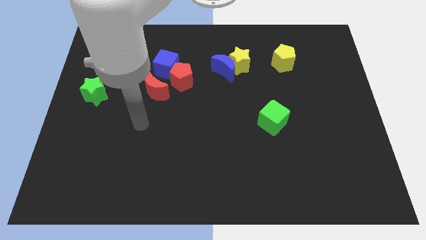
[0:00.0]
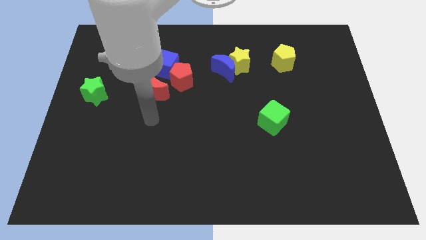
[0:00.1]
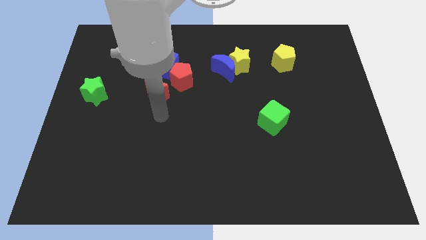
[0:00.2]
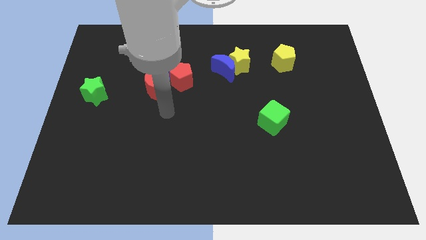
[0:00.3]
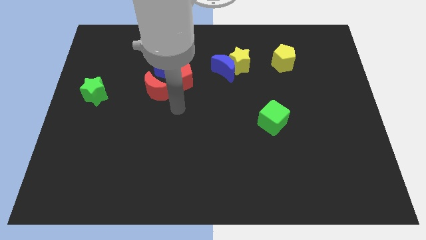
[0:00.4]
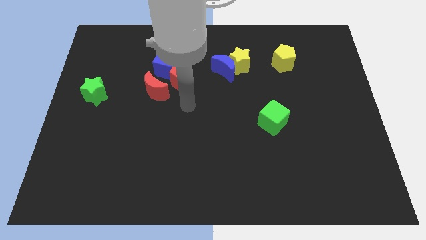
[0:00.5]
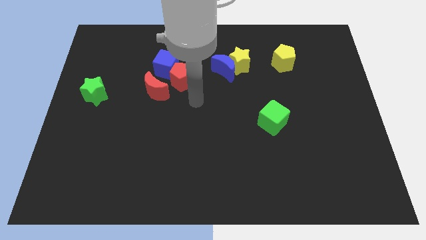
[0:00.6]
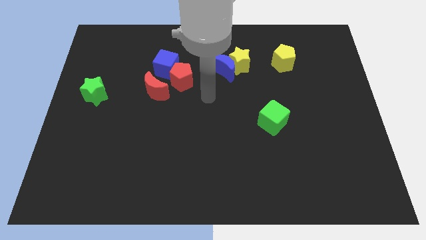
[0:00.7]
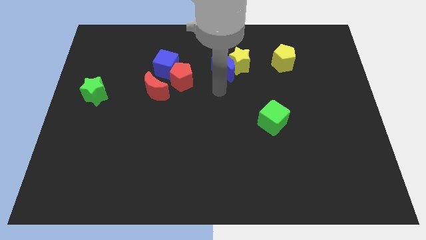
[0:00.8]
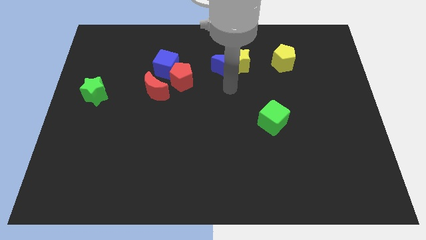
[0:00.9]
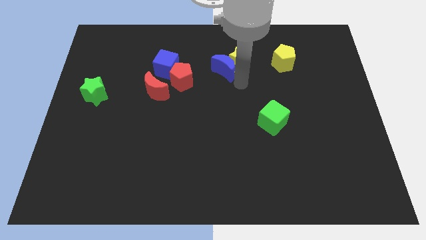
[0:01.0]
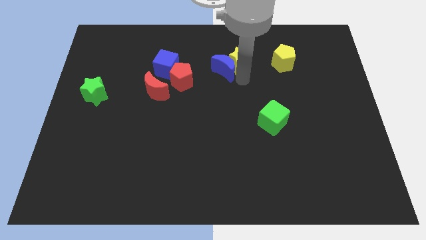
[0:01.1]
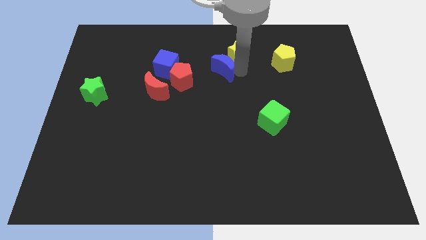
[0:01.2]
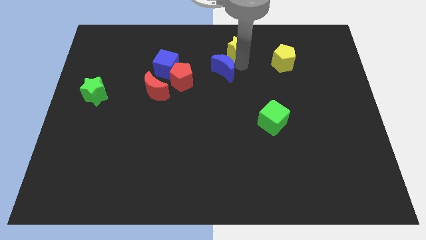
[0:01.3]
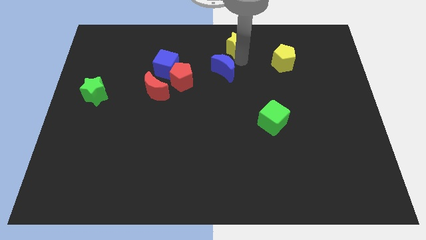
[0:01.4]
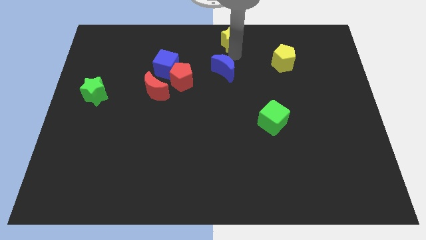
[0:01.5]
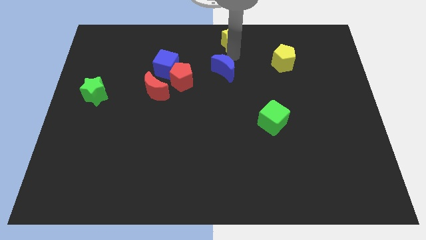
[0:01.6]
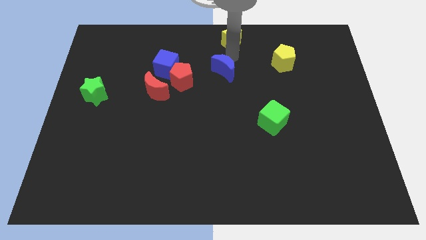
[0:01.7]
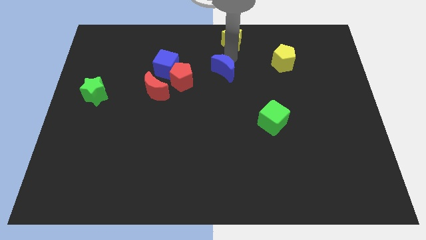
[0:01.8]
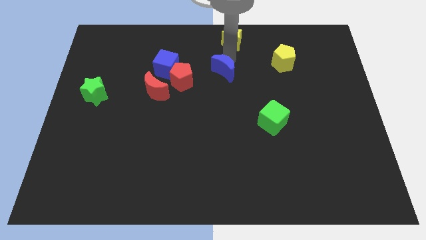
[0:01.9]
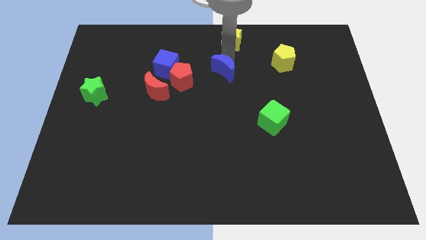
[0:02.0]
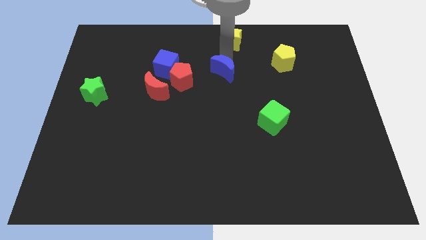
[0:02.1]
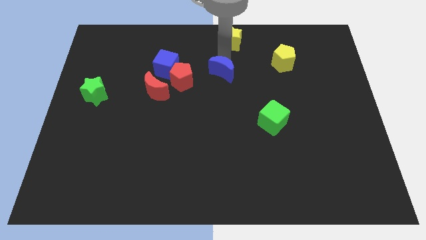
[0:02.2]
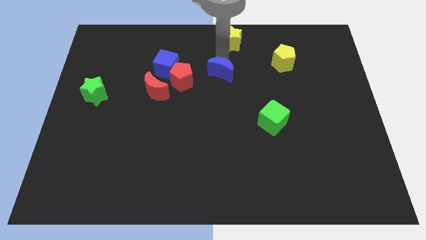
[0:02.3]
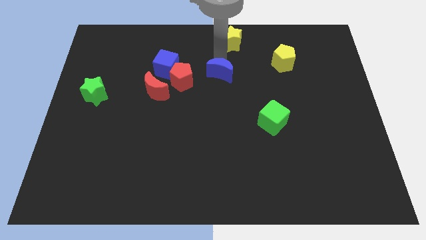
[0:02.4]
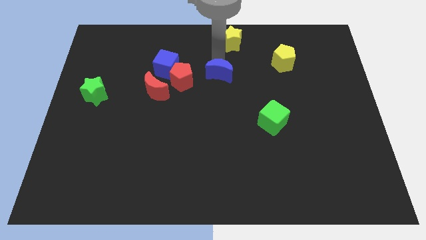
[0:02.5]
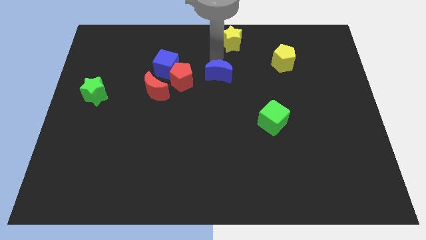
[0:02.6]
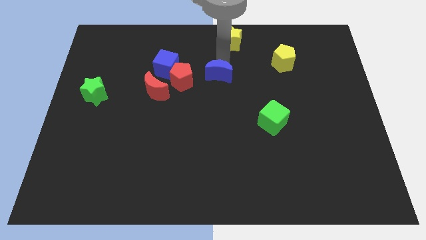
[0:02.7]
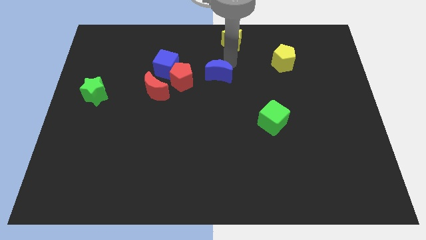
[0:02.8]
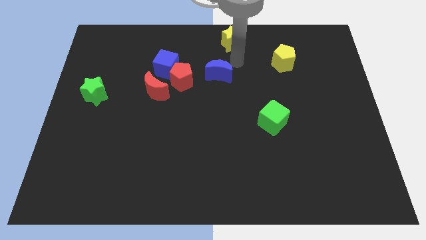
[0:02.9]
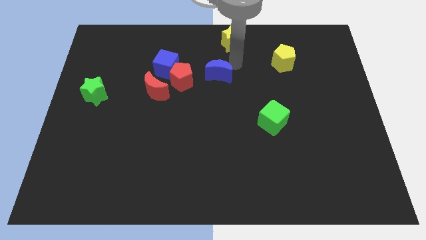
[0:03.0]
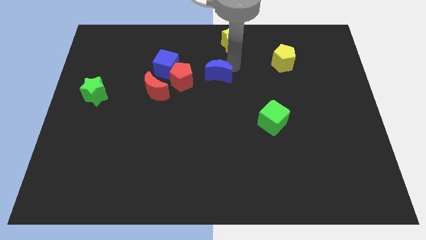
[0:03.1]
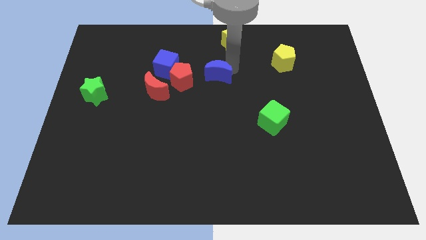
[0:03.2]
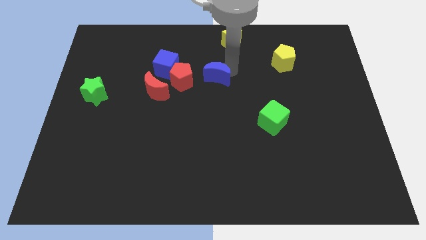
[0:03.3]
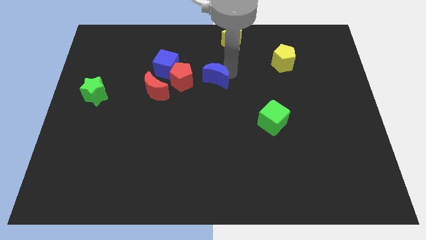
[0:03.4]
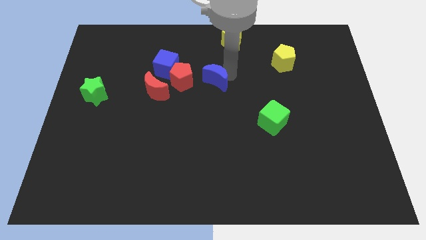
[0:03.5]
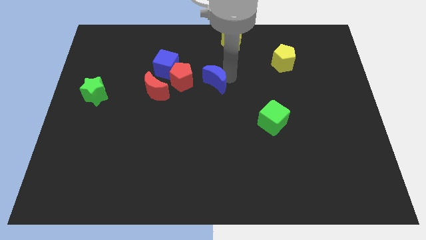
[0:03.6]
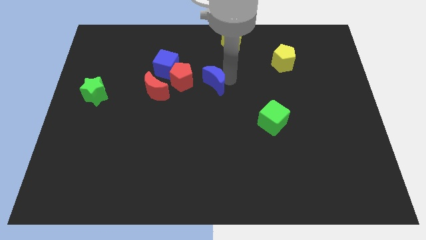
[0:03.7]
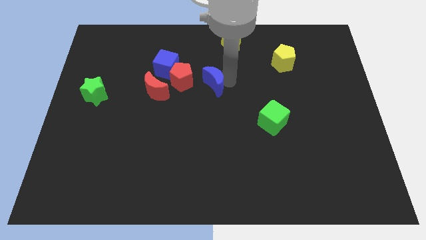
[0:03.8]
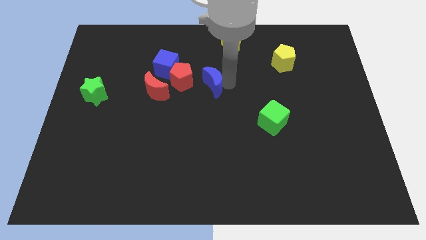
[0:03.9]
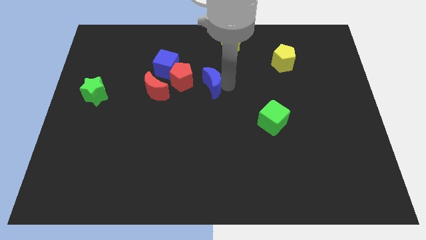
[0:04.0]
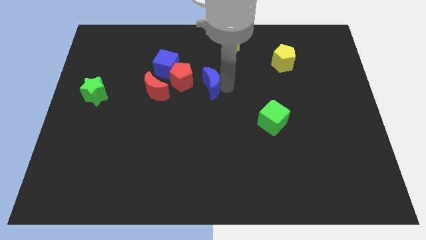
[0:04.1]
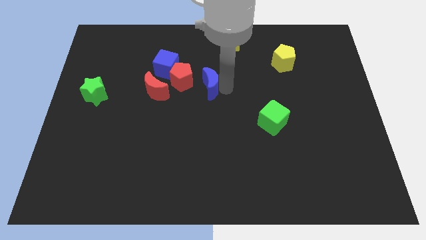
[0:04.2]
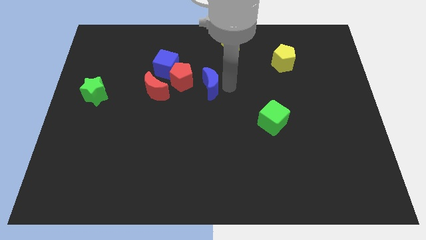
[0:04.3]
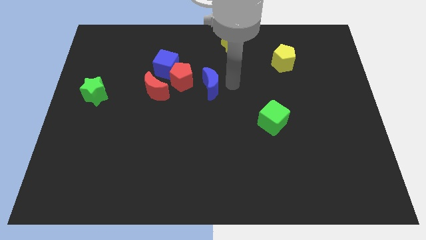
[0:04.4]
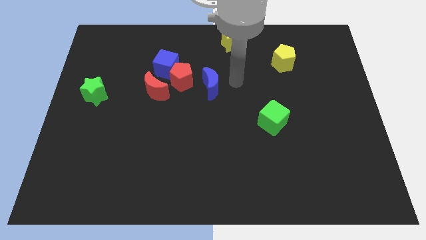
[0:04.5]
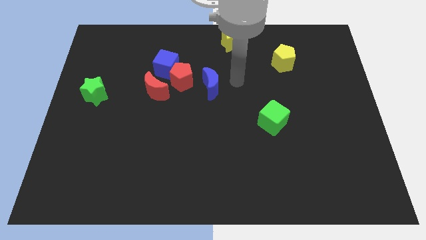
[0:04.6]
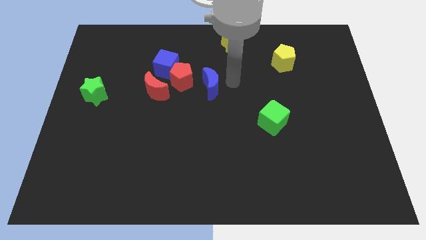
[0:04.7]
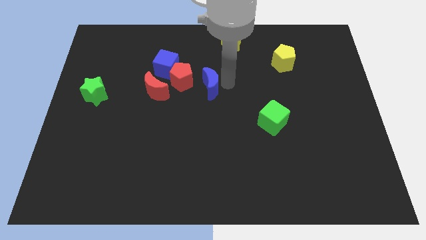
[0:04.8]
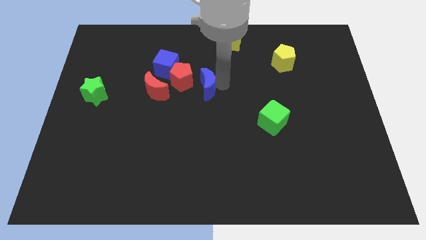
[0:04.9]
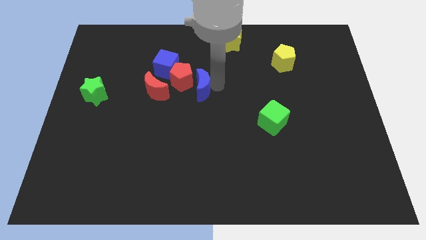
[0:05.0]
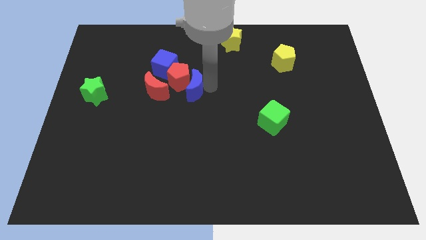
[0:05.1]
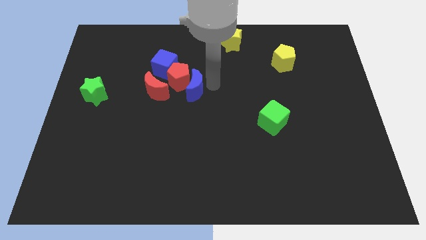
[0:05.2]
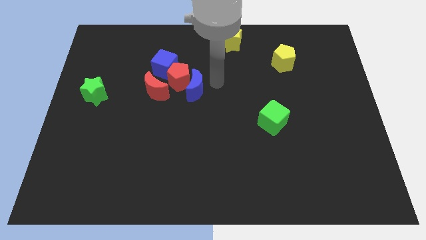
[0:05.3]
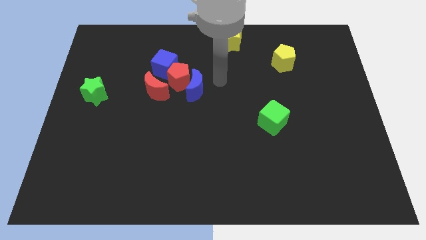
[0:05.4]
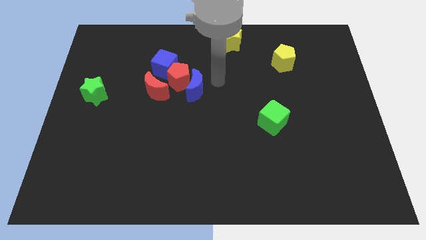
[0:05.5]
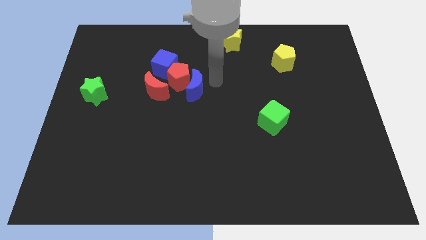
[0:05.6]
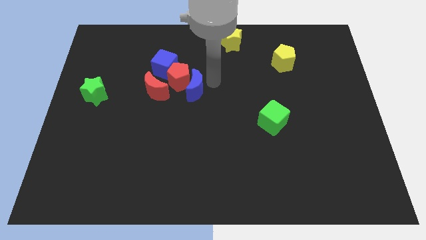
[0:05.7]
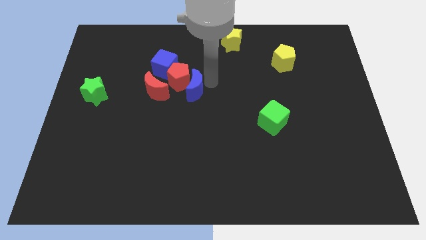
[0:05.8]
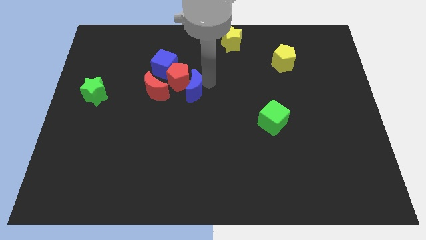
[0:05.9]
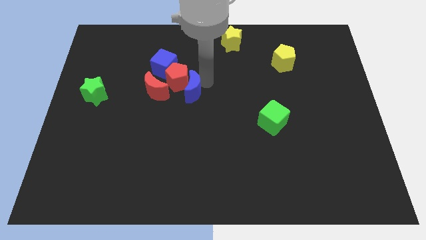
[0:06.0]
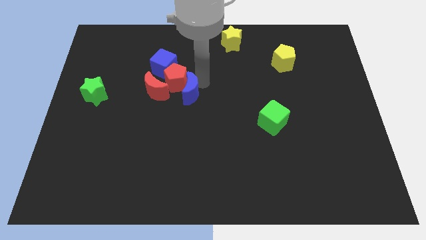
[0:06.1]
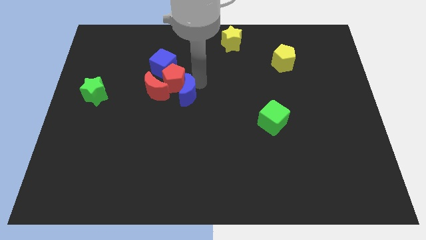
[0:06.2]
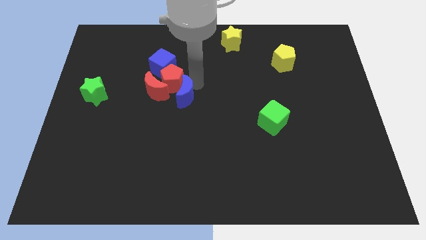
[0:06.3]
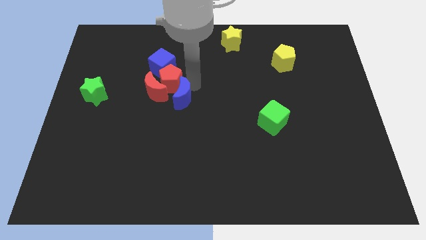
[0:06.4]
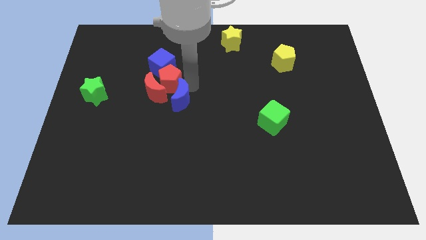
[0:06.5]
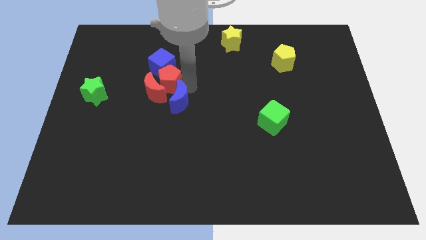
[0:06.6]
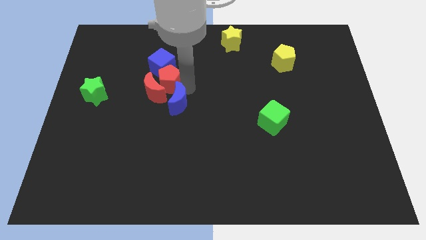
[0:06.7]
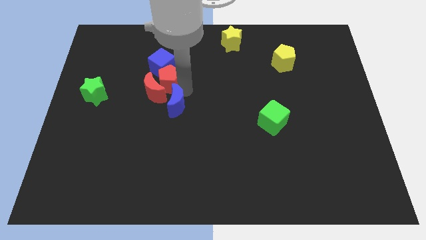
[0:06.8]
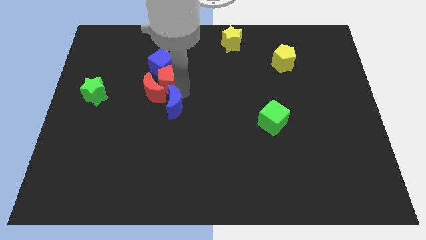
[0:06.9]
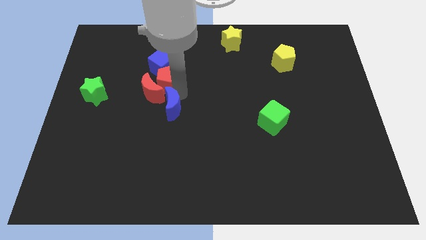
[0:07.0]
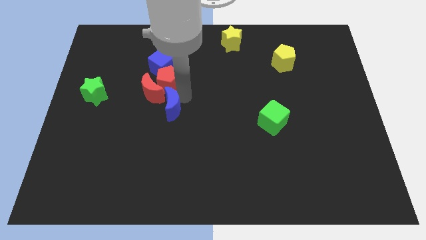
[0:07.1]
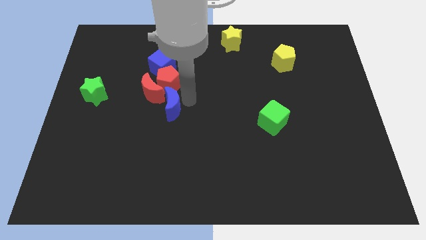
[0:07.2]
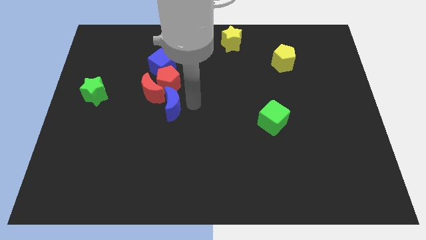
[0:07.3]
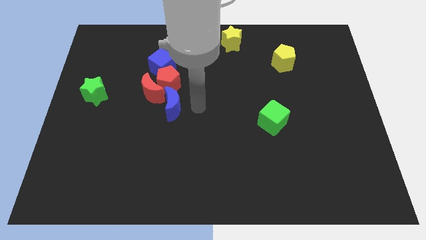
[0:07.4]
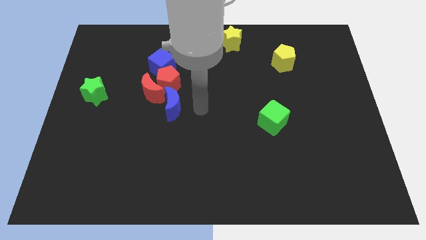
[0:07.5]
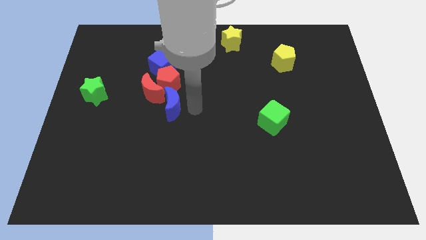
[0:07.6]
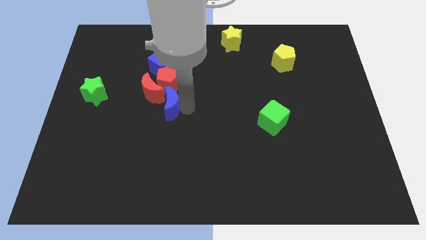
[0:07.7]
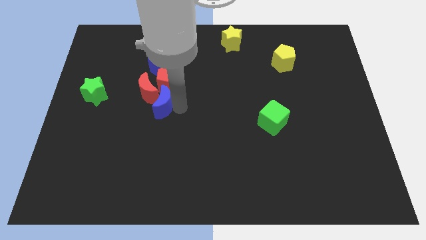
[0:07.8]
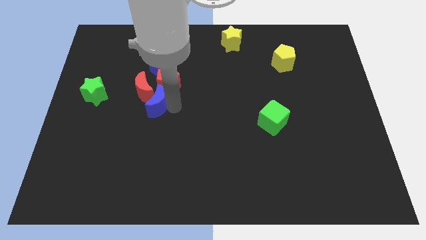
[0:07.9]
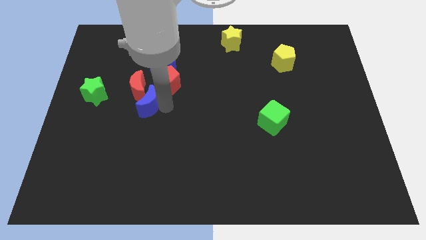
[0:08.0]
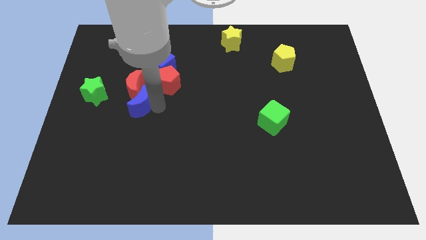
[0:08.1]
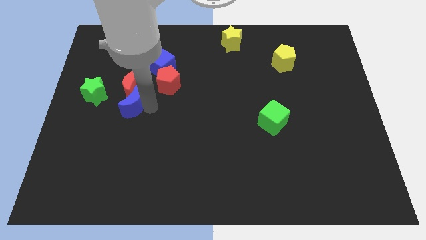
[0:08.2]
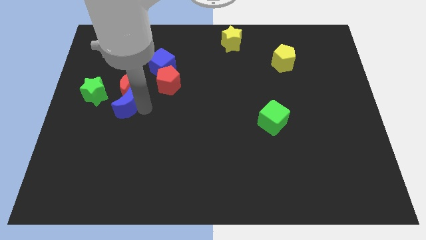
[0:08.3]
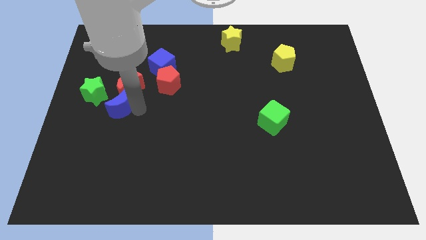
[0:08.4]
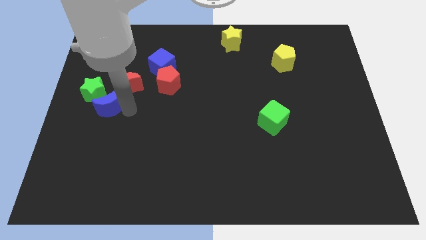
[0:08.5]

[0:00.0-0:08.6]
slide the blue moon next to the green star
